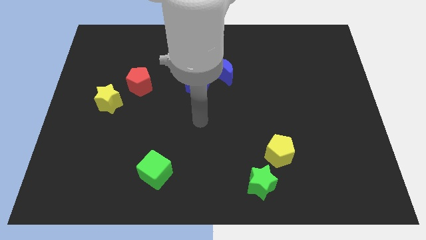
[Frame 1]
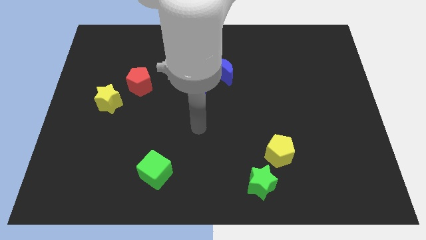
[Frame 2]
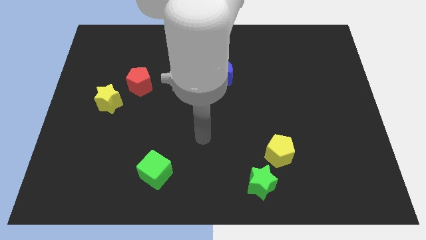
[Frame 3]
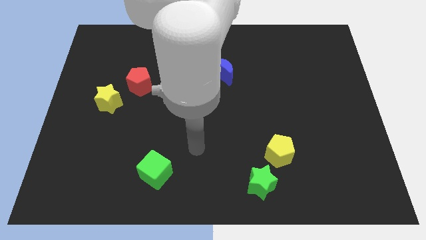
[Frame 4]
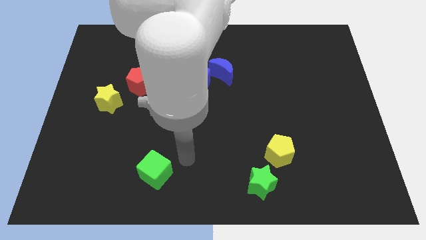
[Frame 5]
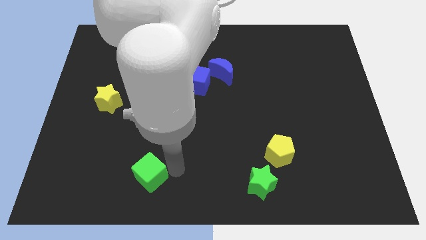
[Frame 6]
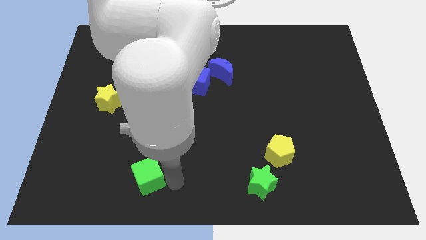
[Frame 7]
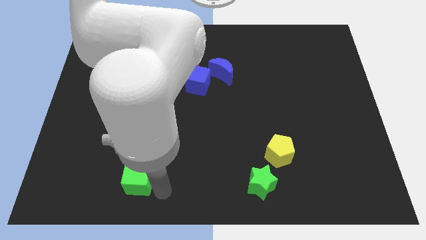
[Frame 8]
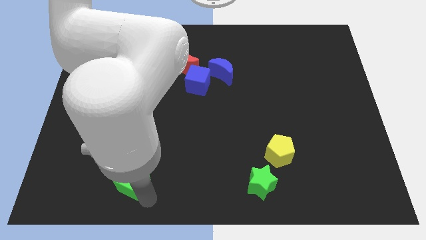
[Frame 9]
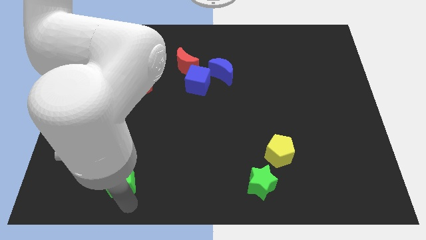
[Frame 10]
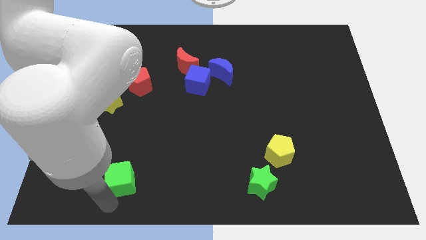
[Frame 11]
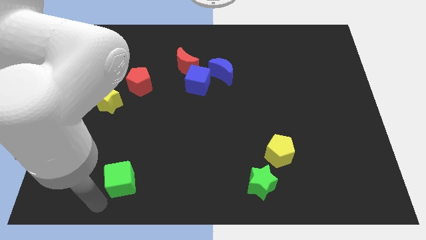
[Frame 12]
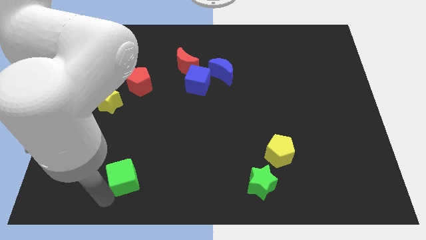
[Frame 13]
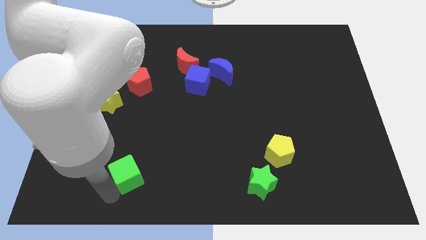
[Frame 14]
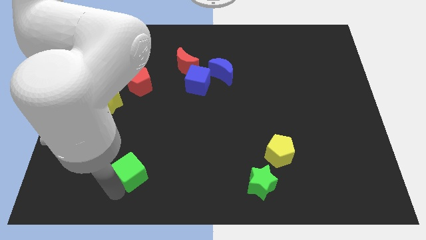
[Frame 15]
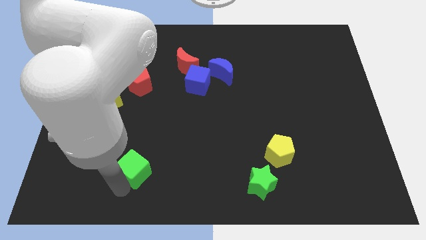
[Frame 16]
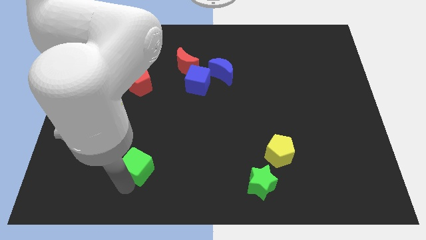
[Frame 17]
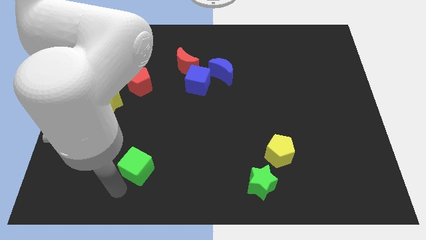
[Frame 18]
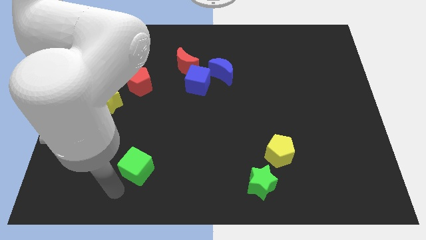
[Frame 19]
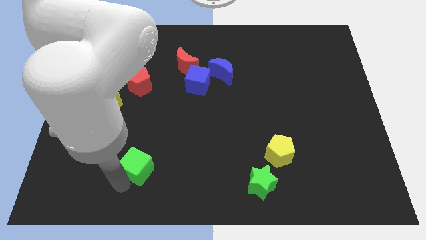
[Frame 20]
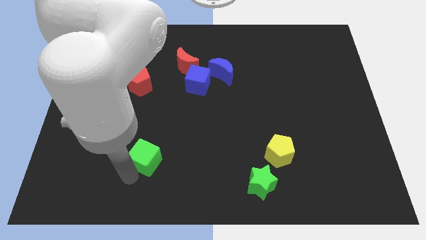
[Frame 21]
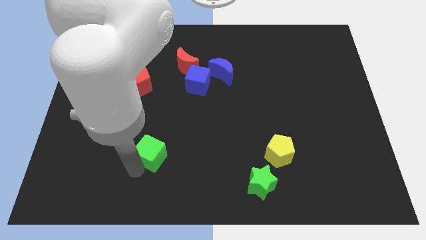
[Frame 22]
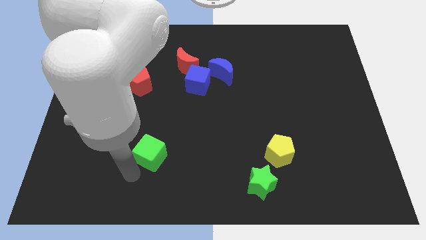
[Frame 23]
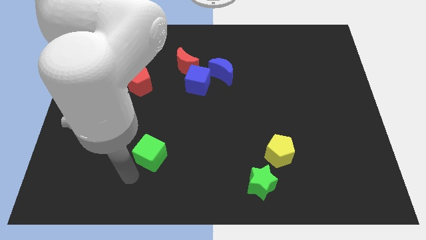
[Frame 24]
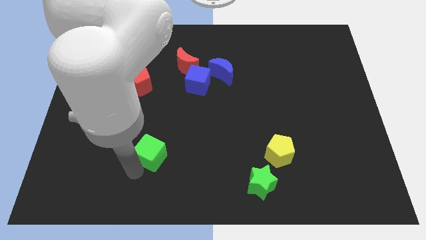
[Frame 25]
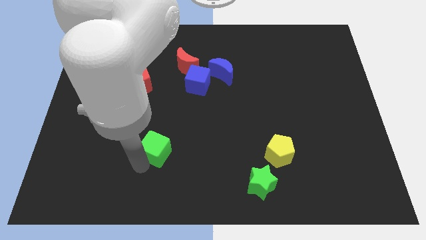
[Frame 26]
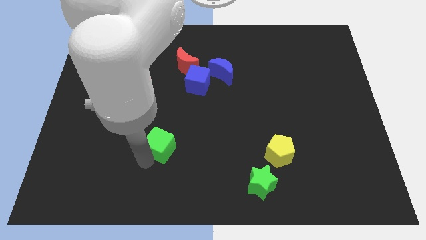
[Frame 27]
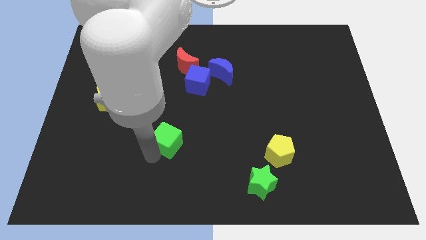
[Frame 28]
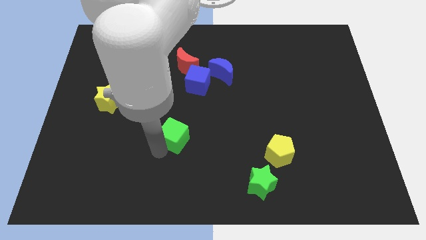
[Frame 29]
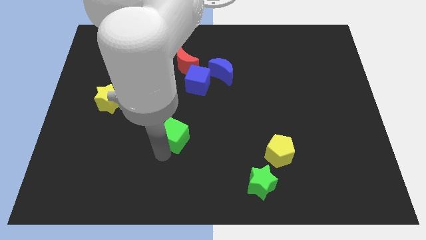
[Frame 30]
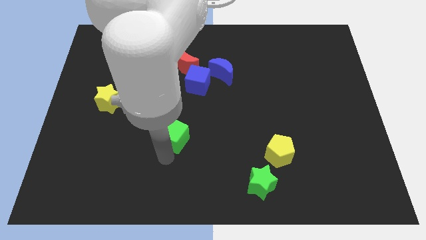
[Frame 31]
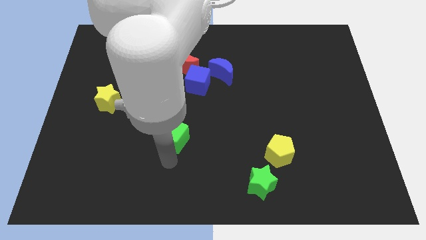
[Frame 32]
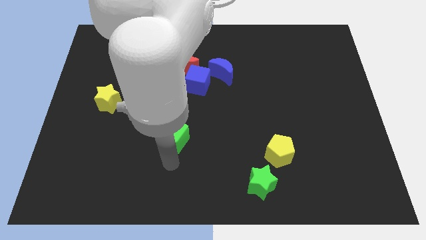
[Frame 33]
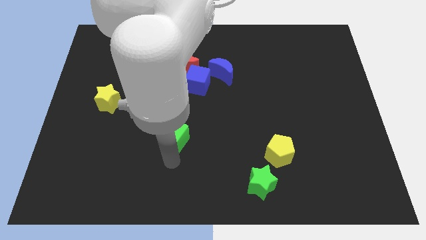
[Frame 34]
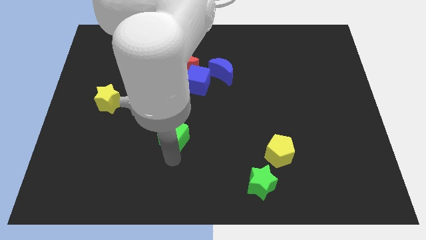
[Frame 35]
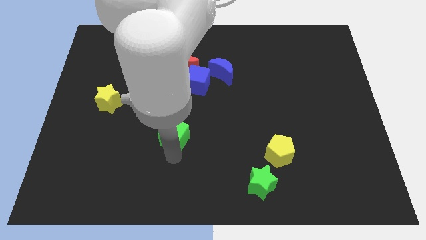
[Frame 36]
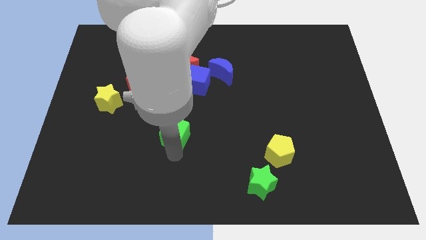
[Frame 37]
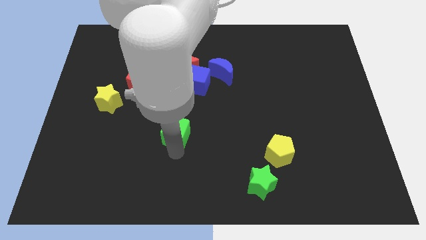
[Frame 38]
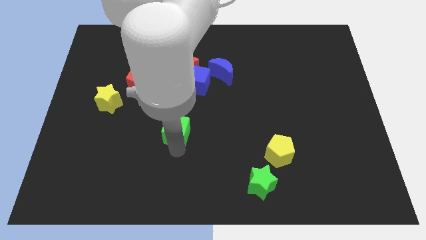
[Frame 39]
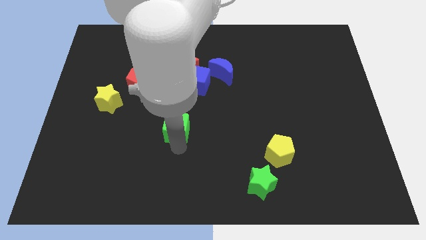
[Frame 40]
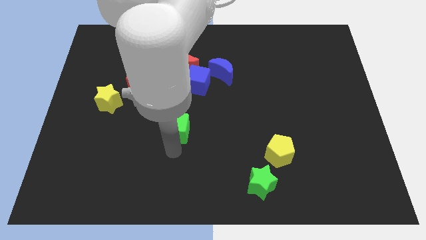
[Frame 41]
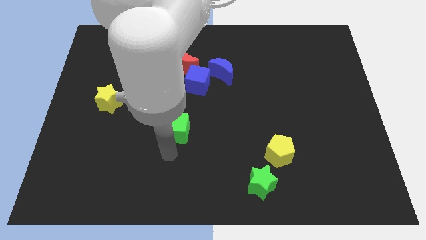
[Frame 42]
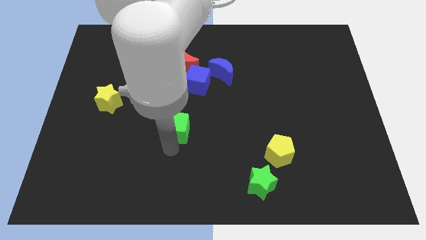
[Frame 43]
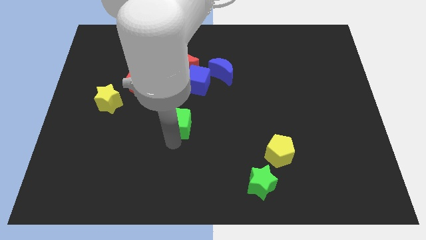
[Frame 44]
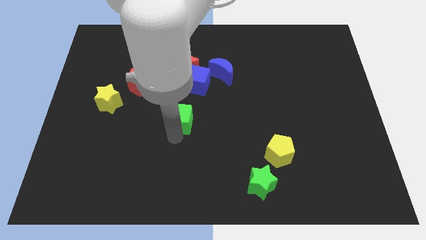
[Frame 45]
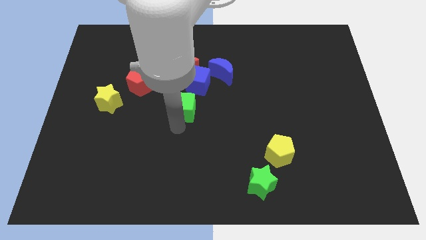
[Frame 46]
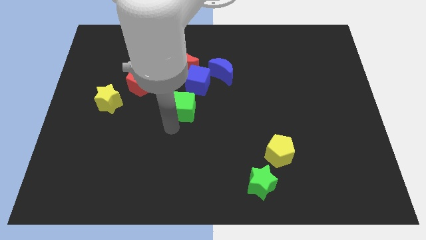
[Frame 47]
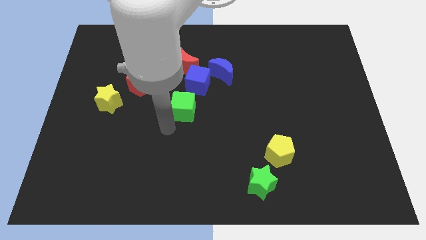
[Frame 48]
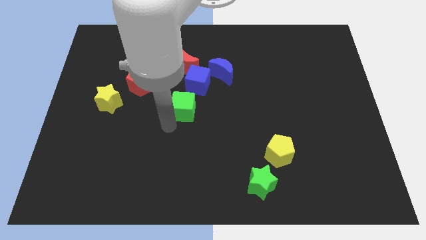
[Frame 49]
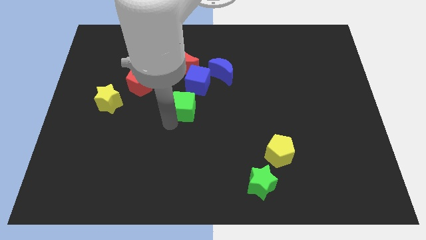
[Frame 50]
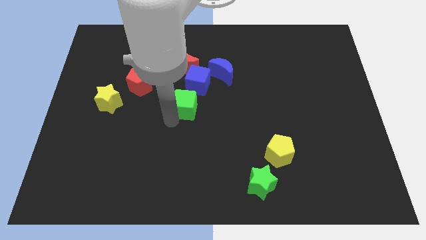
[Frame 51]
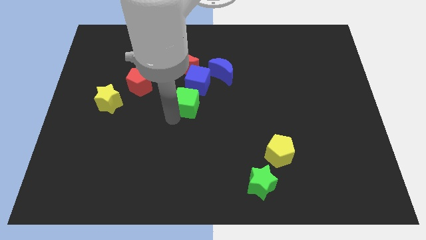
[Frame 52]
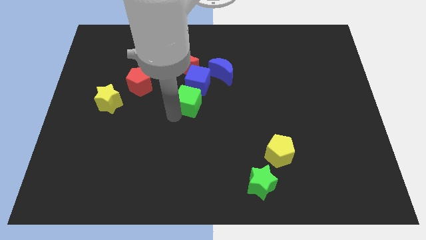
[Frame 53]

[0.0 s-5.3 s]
put the green cube to the bottom left side of the blue moon

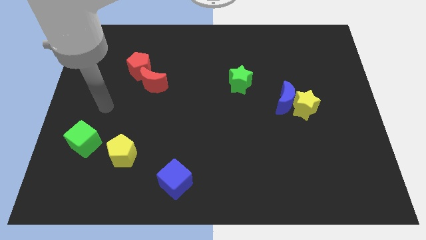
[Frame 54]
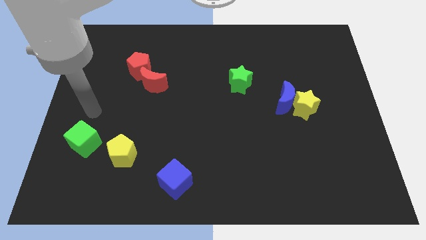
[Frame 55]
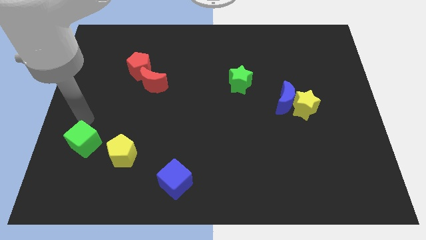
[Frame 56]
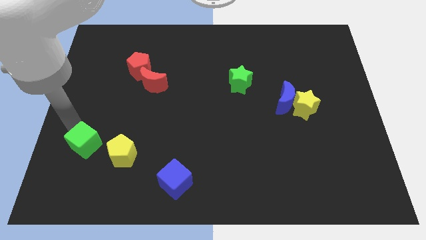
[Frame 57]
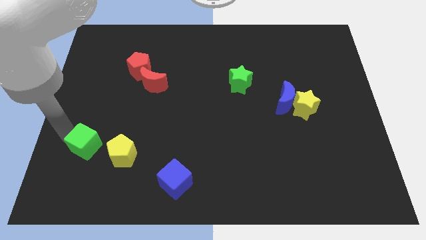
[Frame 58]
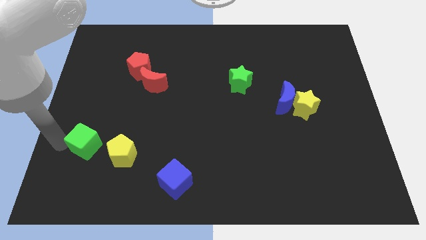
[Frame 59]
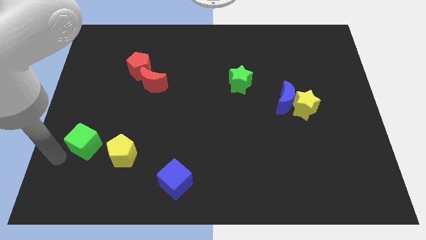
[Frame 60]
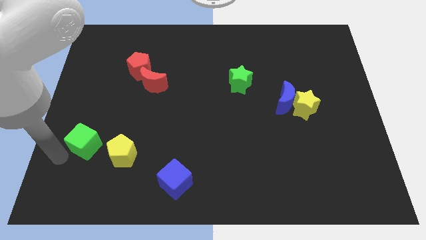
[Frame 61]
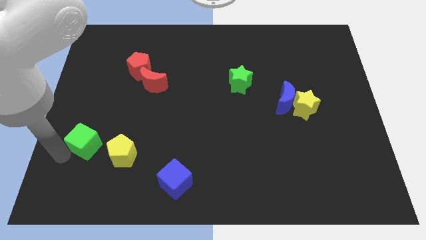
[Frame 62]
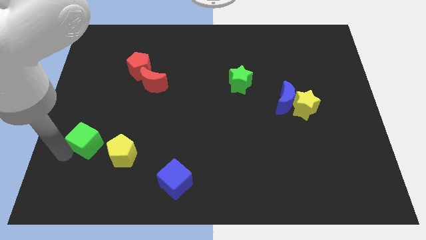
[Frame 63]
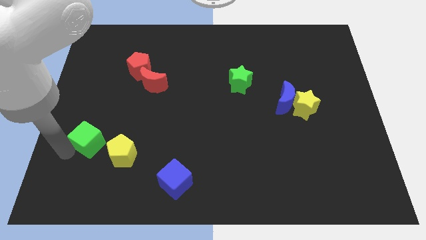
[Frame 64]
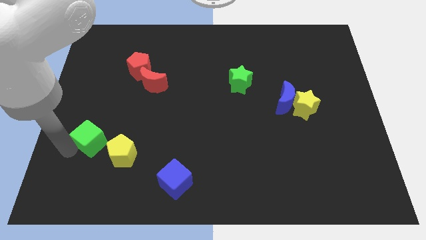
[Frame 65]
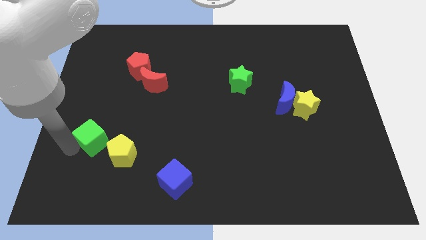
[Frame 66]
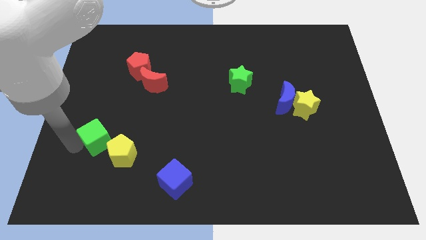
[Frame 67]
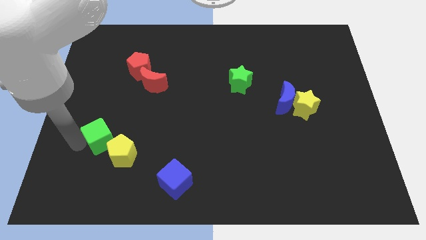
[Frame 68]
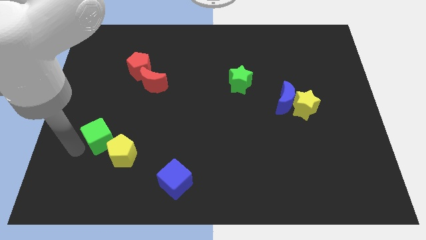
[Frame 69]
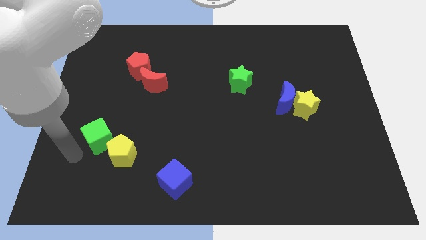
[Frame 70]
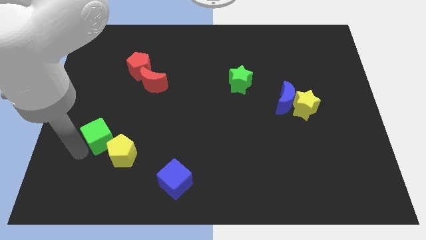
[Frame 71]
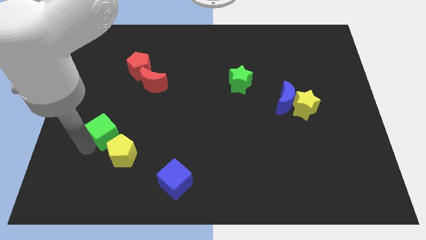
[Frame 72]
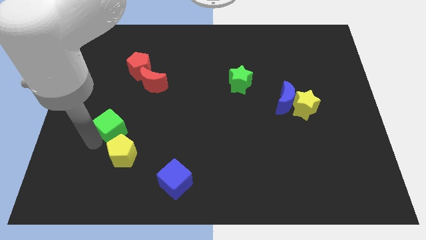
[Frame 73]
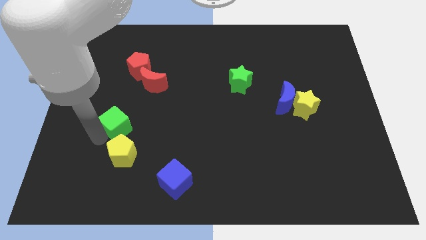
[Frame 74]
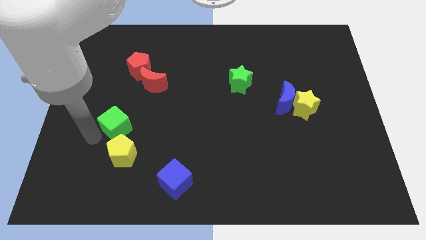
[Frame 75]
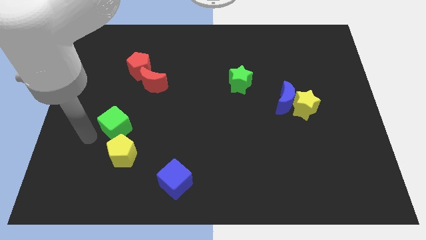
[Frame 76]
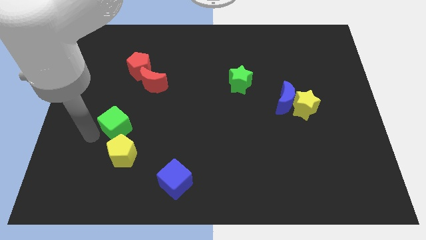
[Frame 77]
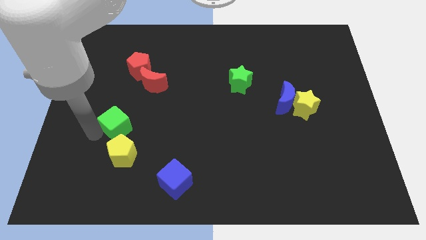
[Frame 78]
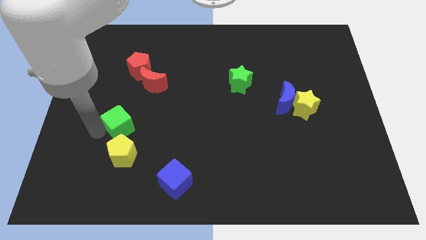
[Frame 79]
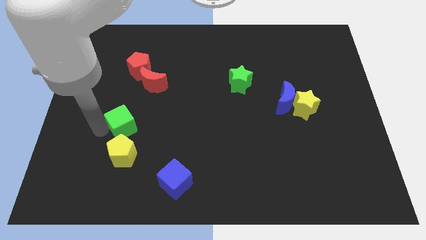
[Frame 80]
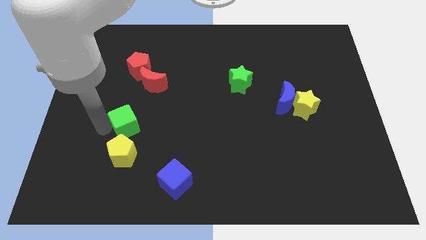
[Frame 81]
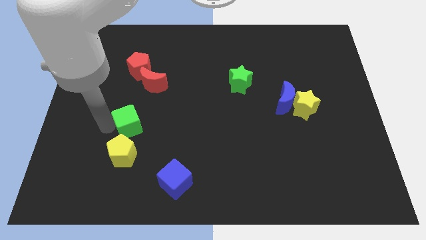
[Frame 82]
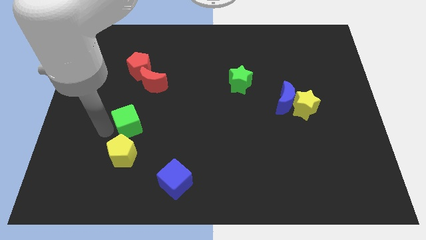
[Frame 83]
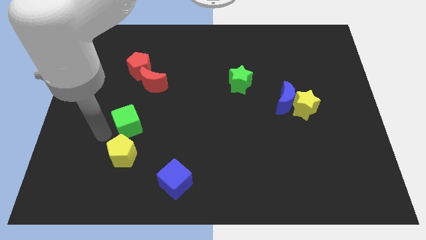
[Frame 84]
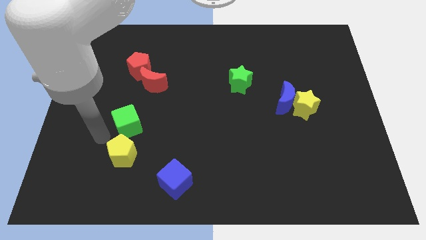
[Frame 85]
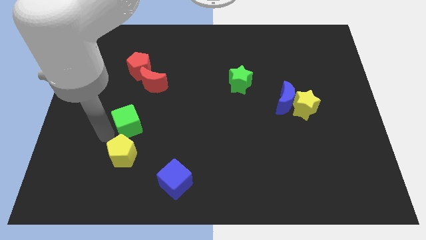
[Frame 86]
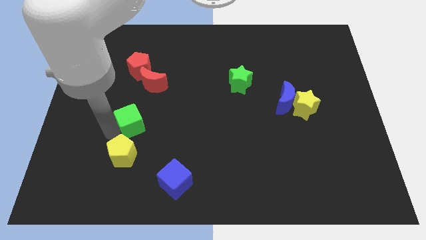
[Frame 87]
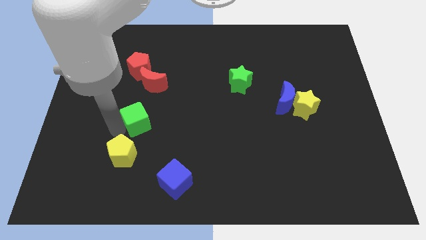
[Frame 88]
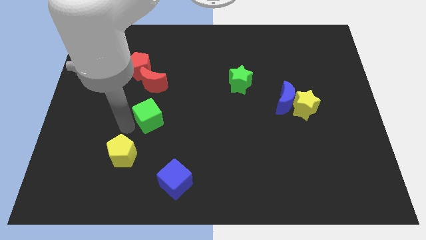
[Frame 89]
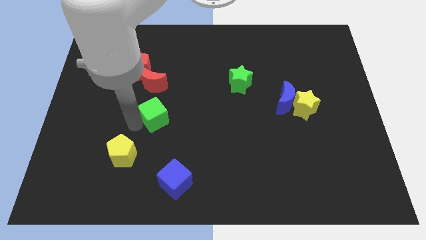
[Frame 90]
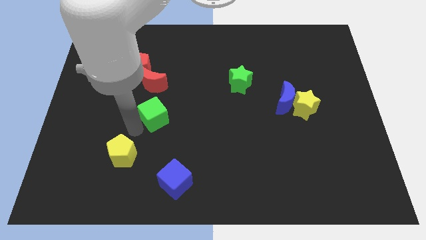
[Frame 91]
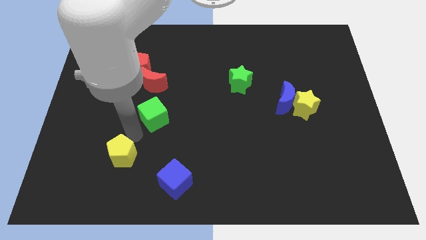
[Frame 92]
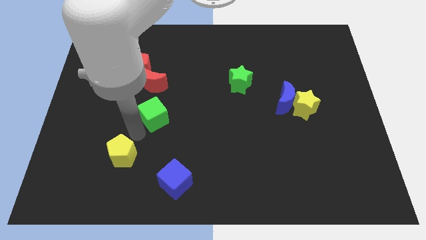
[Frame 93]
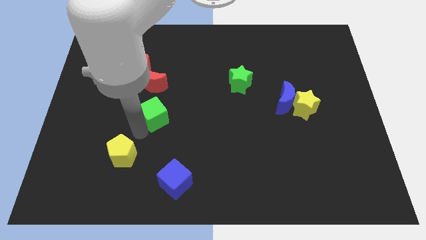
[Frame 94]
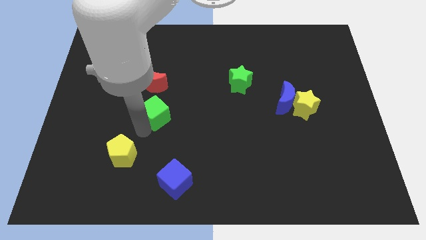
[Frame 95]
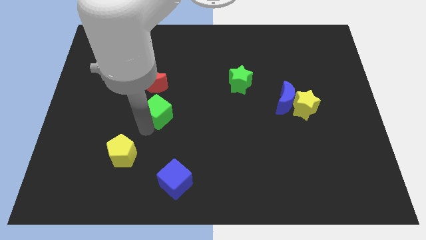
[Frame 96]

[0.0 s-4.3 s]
put the green cube to the bottom right of the red moon
